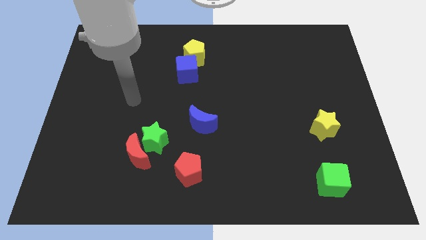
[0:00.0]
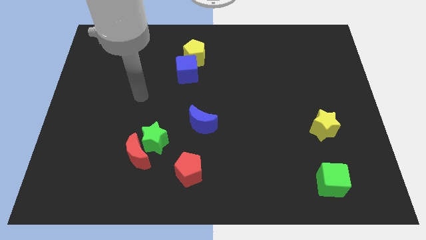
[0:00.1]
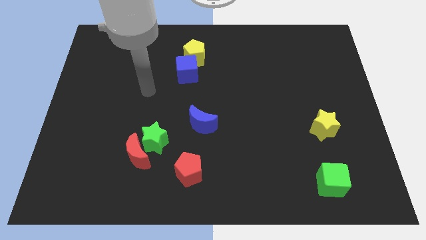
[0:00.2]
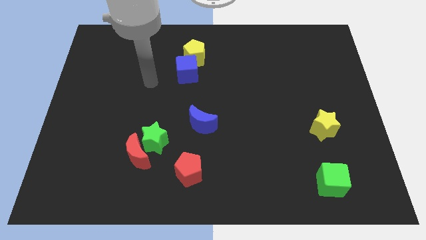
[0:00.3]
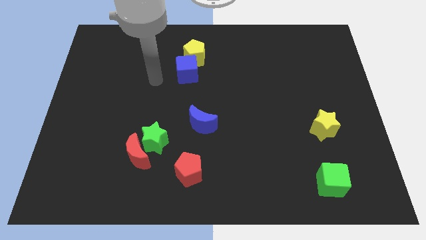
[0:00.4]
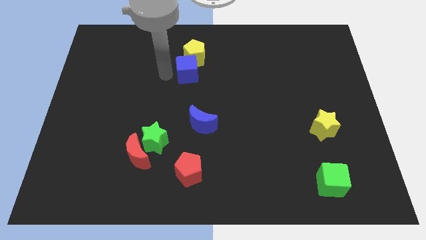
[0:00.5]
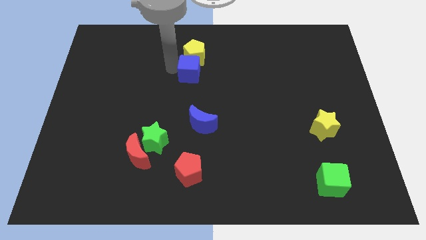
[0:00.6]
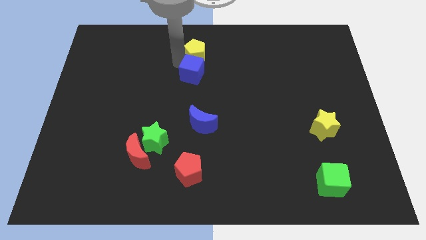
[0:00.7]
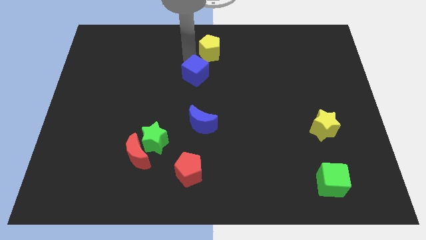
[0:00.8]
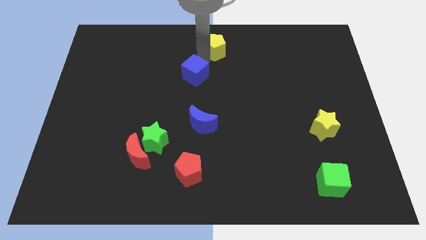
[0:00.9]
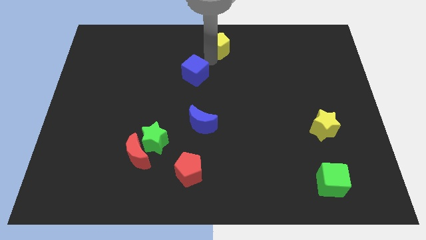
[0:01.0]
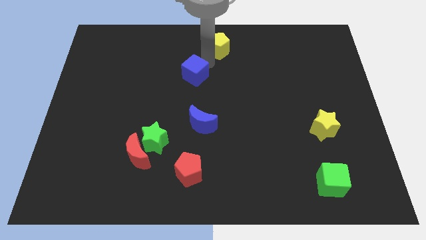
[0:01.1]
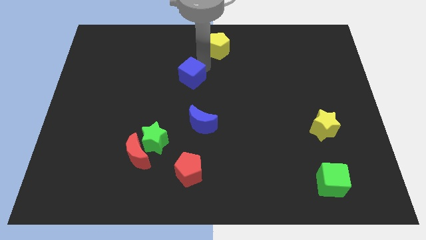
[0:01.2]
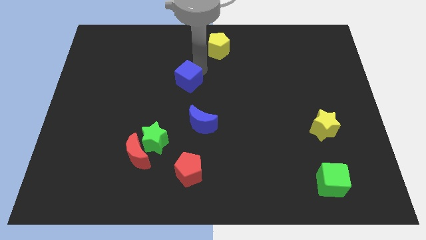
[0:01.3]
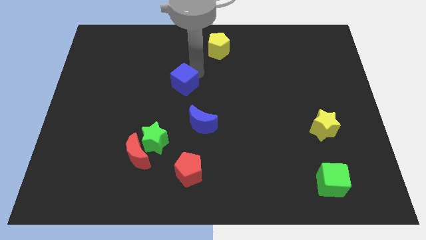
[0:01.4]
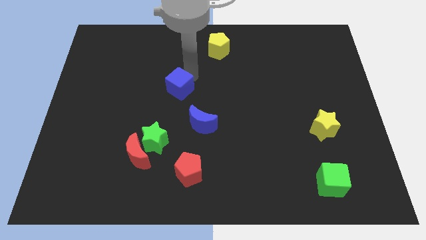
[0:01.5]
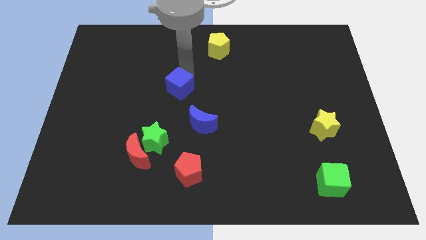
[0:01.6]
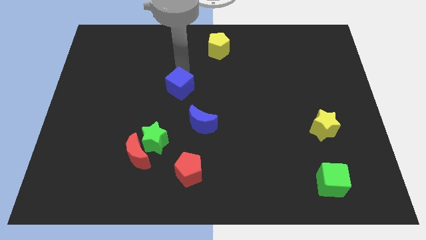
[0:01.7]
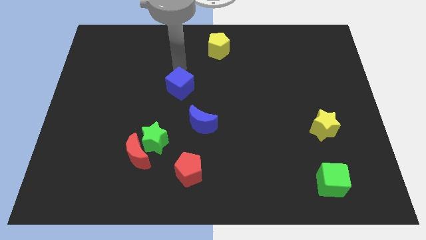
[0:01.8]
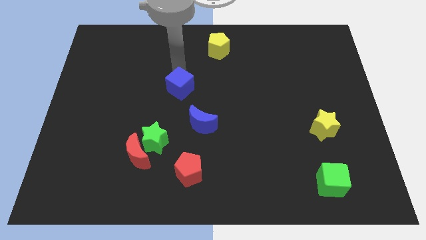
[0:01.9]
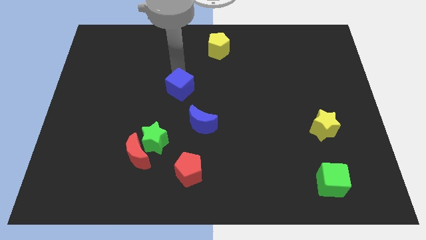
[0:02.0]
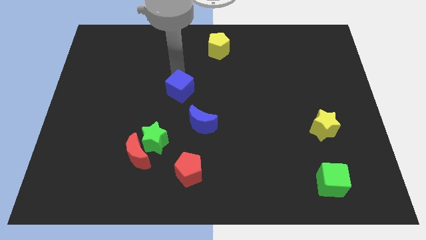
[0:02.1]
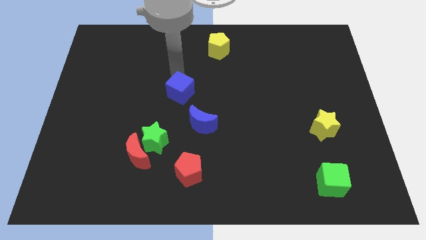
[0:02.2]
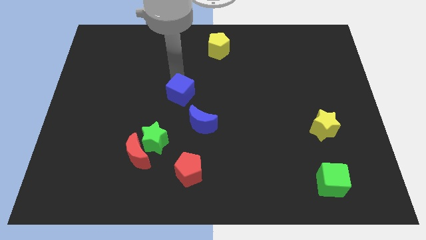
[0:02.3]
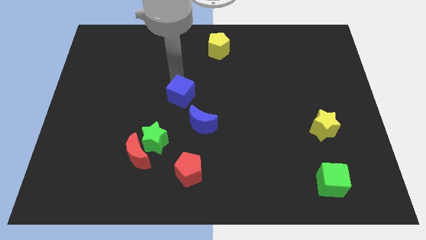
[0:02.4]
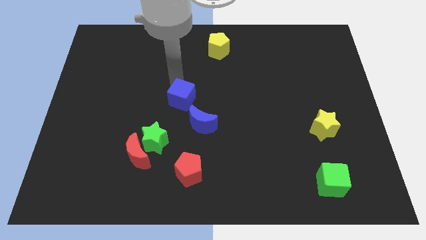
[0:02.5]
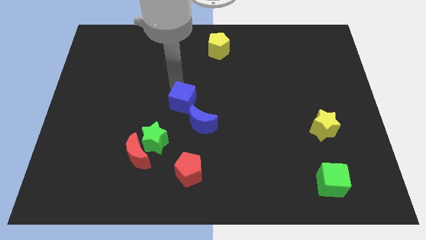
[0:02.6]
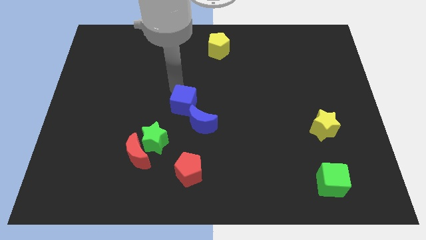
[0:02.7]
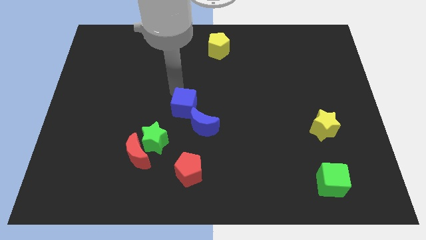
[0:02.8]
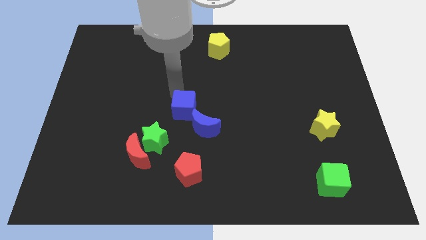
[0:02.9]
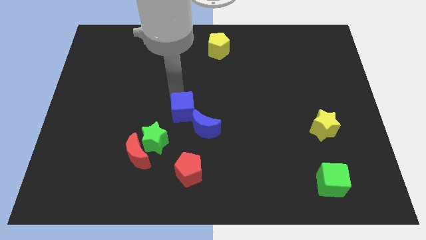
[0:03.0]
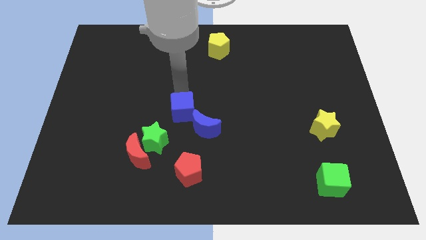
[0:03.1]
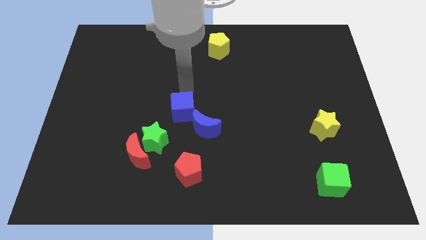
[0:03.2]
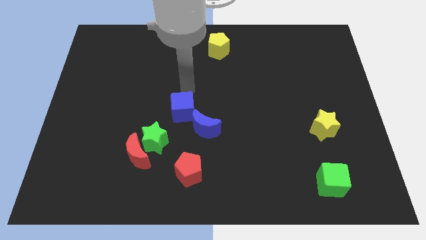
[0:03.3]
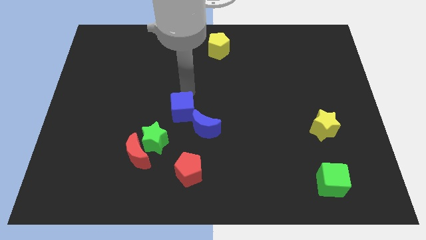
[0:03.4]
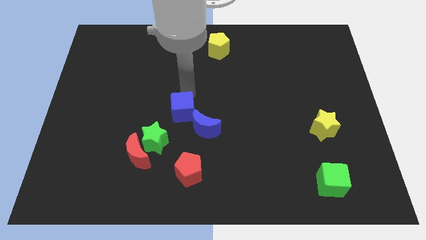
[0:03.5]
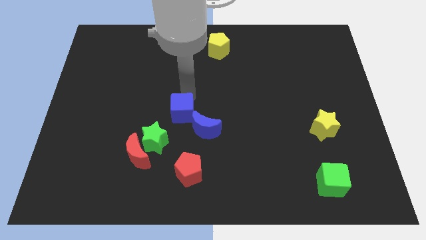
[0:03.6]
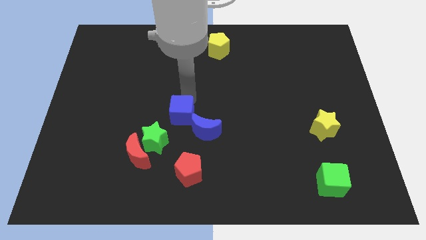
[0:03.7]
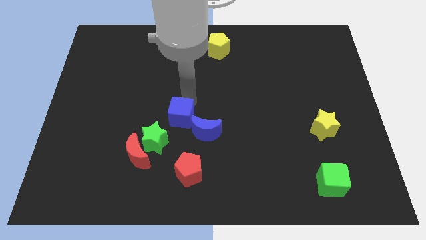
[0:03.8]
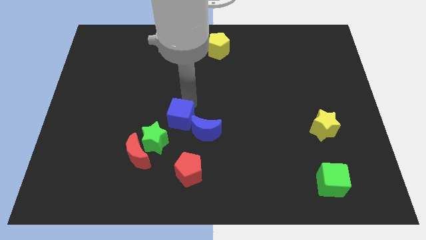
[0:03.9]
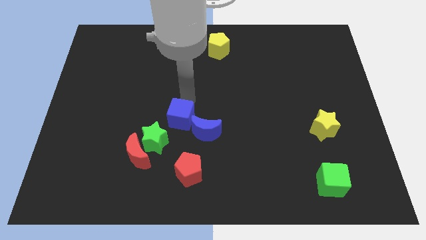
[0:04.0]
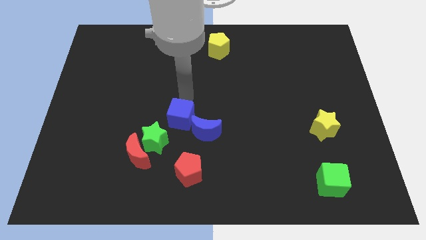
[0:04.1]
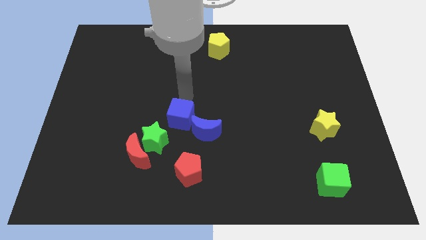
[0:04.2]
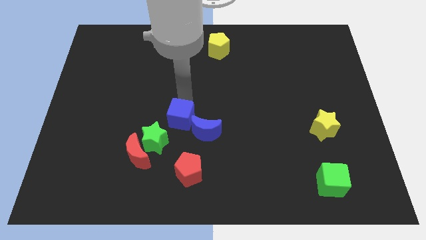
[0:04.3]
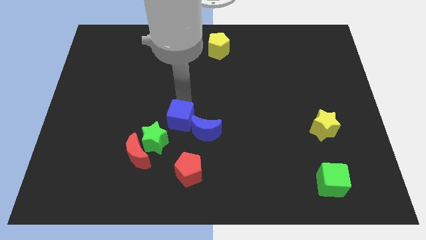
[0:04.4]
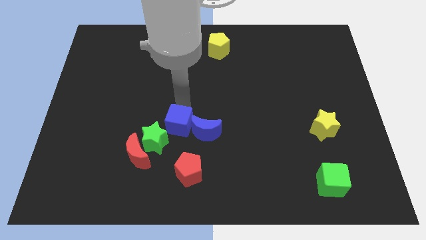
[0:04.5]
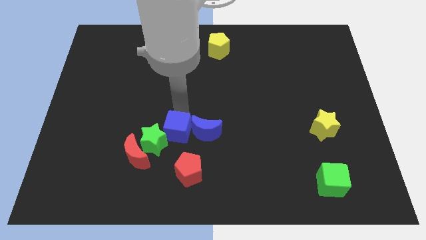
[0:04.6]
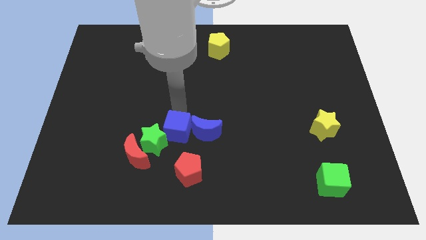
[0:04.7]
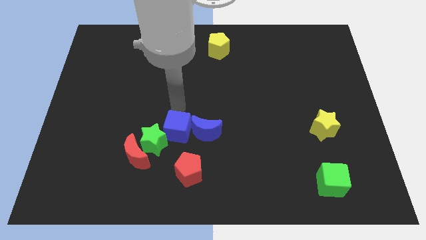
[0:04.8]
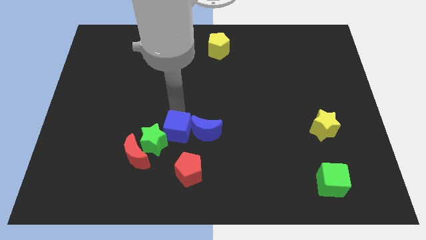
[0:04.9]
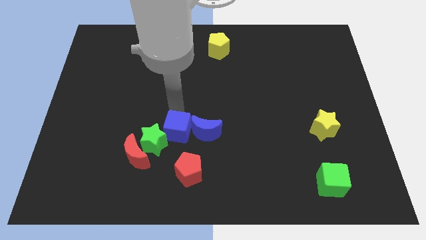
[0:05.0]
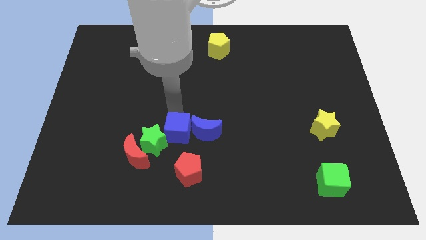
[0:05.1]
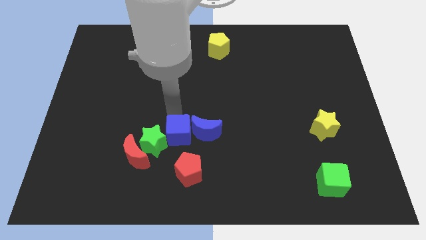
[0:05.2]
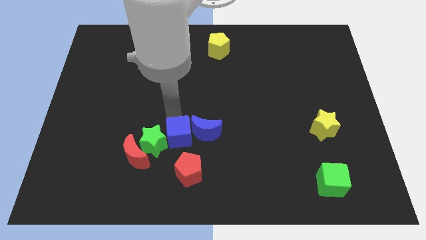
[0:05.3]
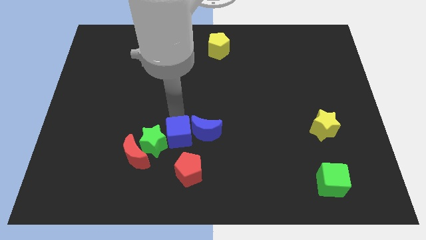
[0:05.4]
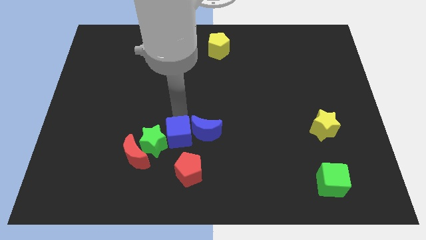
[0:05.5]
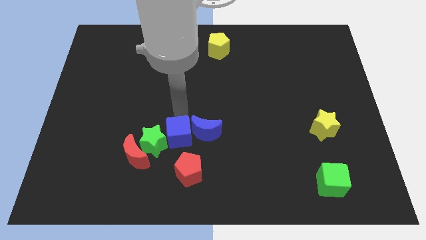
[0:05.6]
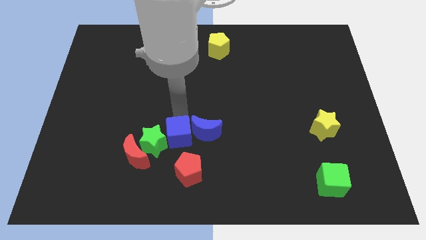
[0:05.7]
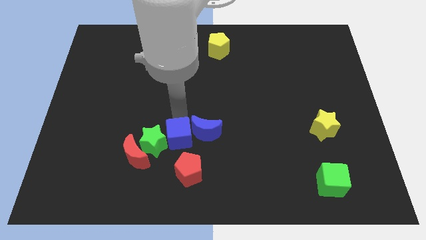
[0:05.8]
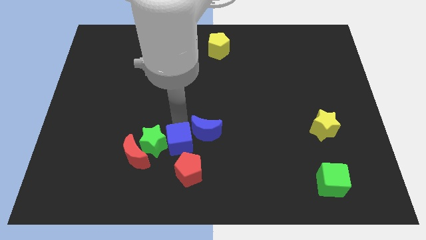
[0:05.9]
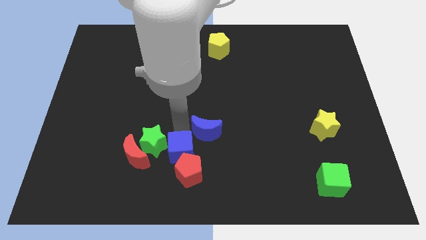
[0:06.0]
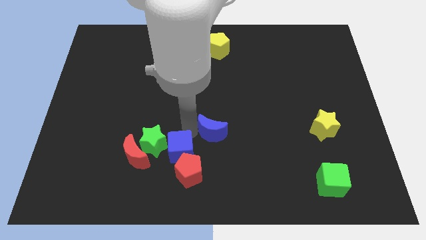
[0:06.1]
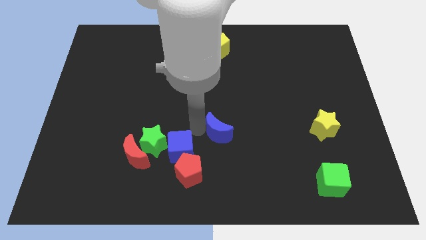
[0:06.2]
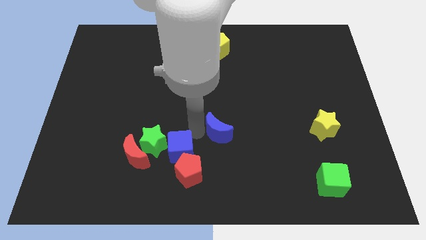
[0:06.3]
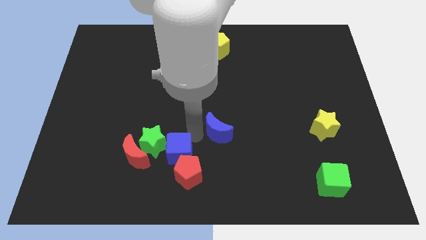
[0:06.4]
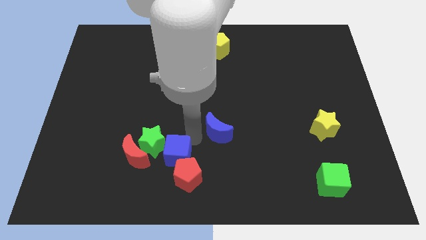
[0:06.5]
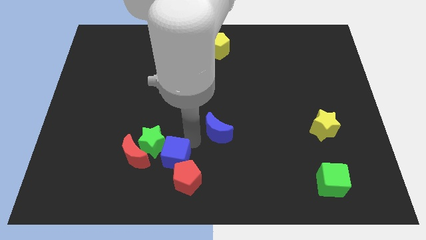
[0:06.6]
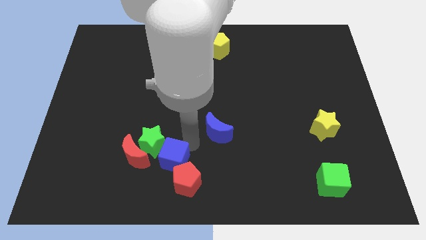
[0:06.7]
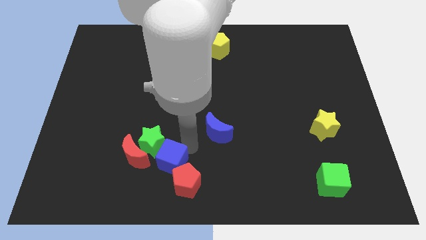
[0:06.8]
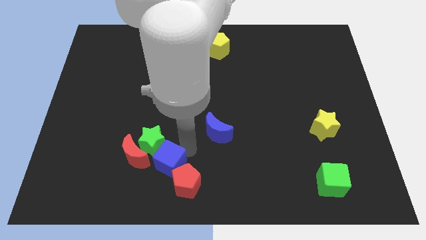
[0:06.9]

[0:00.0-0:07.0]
put the blue cube diagonally down and to the right of the red moon

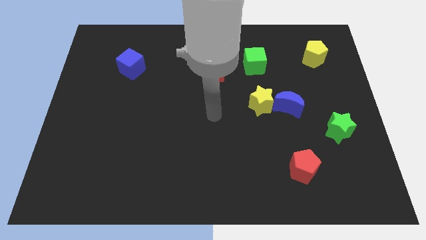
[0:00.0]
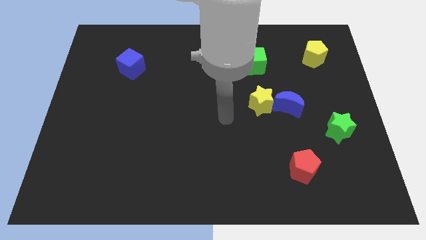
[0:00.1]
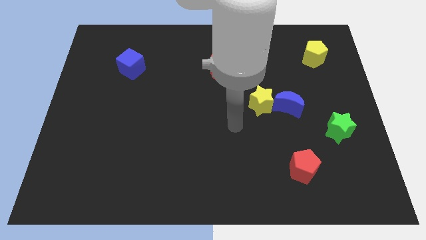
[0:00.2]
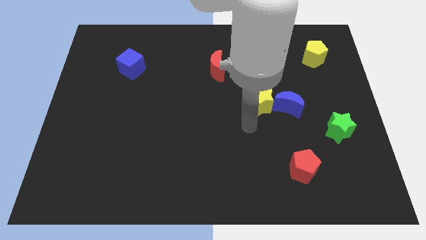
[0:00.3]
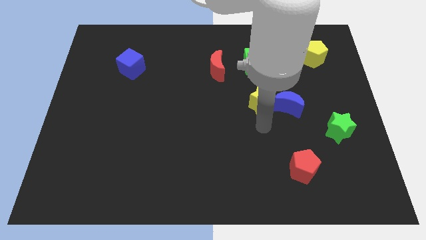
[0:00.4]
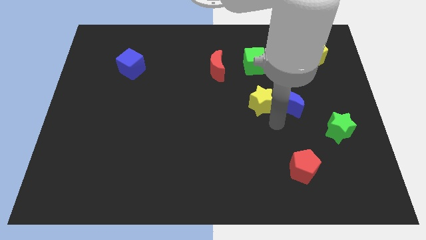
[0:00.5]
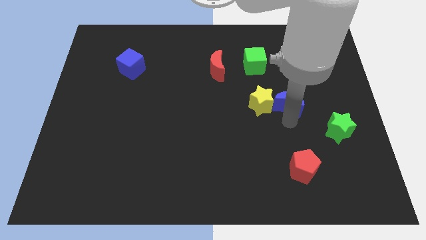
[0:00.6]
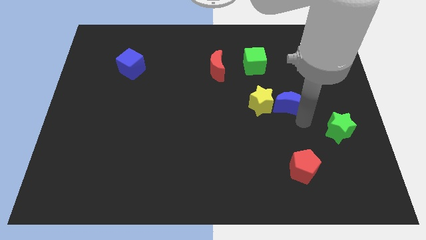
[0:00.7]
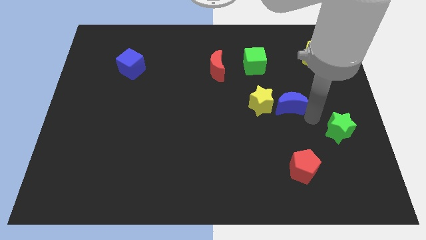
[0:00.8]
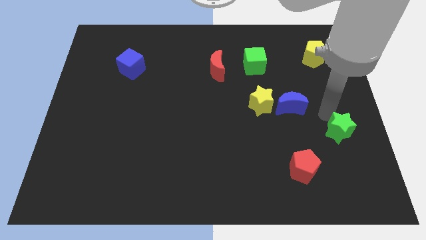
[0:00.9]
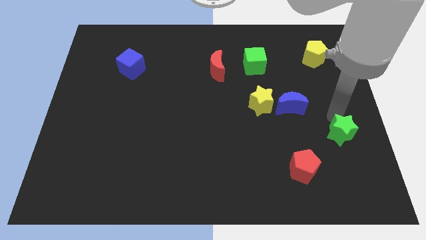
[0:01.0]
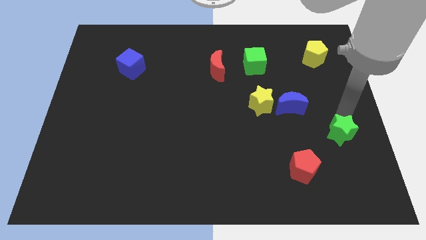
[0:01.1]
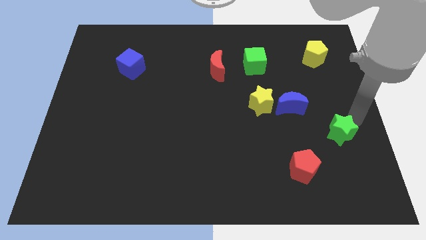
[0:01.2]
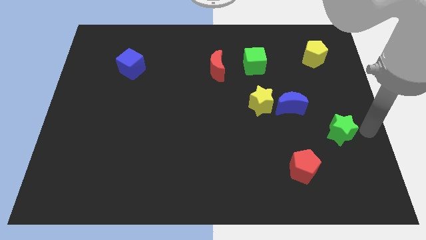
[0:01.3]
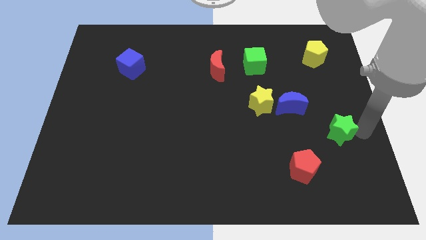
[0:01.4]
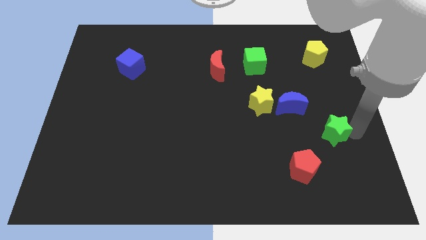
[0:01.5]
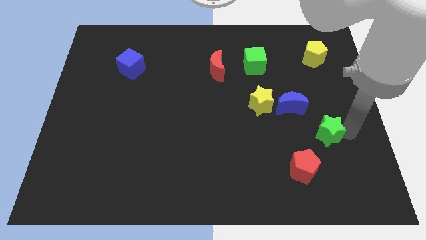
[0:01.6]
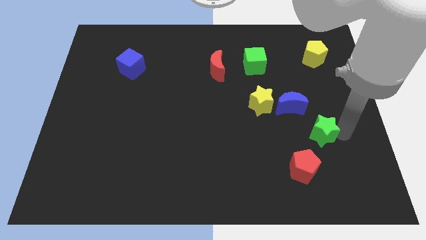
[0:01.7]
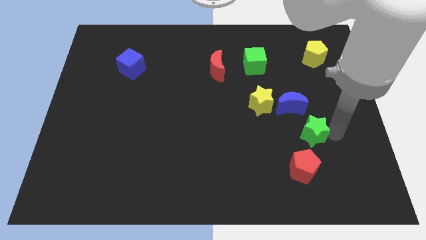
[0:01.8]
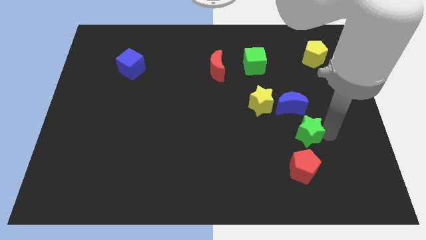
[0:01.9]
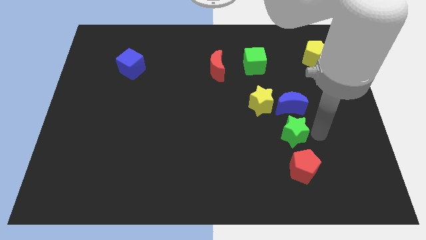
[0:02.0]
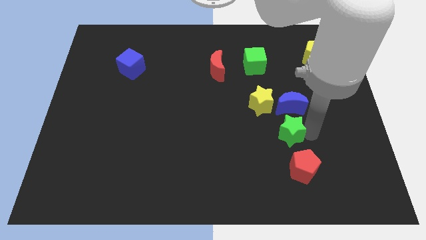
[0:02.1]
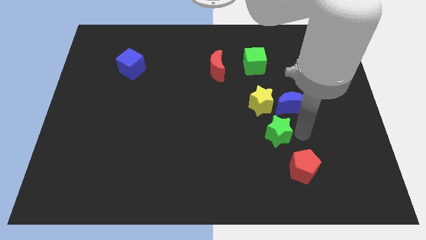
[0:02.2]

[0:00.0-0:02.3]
put the green star to the bottom of the yellow star
